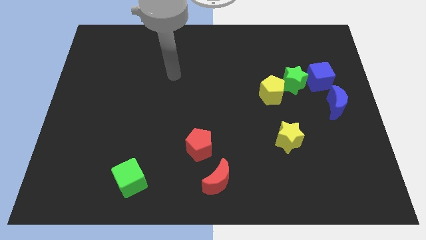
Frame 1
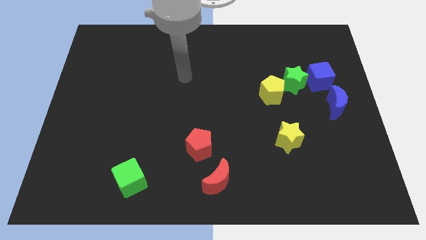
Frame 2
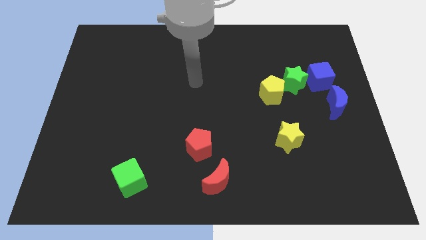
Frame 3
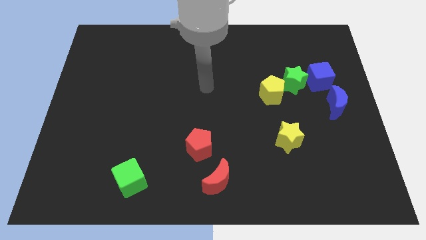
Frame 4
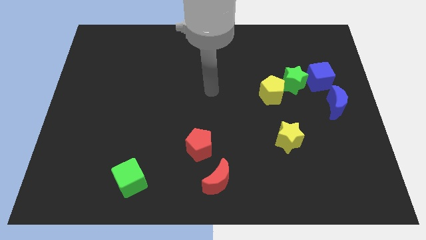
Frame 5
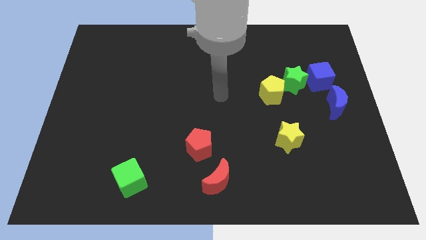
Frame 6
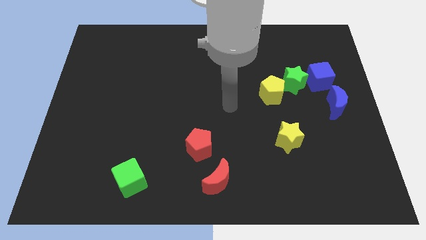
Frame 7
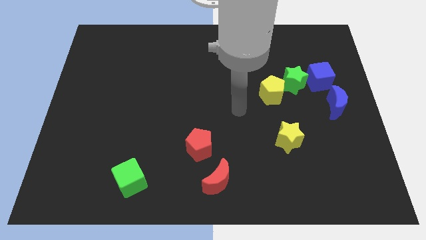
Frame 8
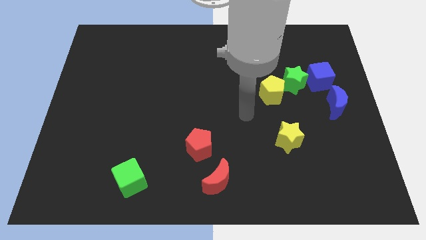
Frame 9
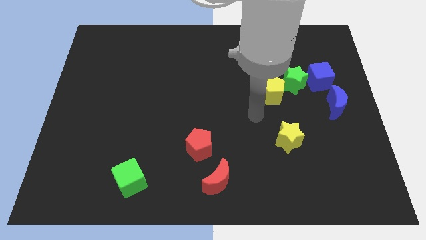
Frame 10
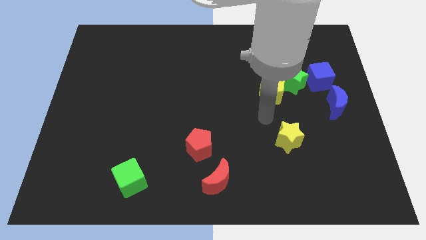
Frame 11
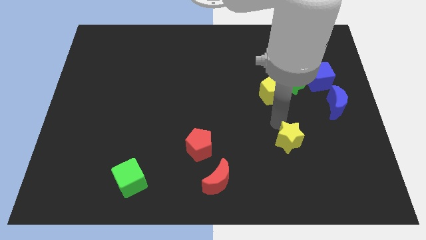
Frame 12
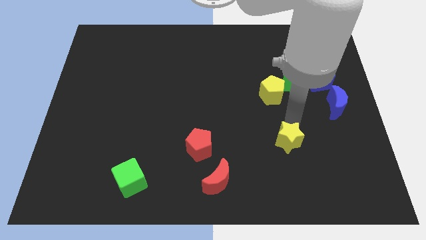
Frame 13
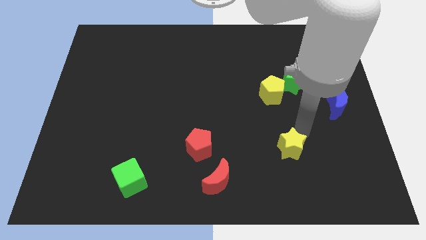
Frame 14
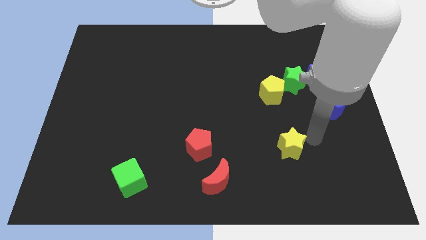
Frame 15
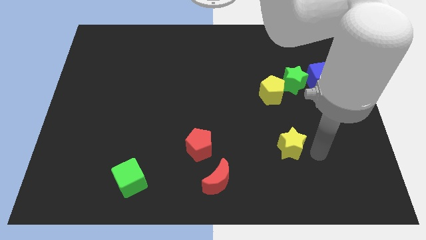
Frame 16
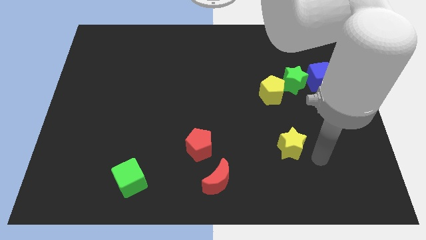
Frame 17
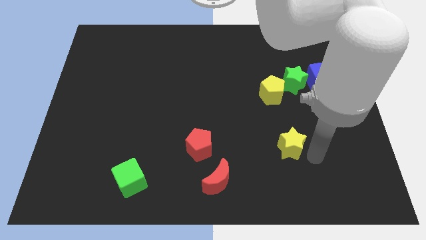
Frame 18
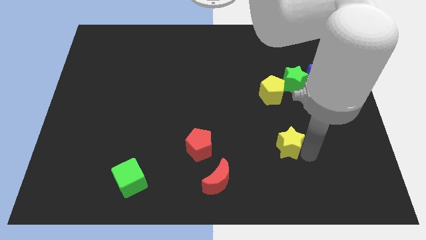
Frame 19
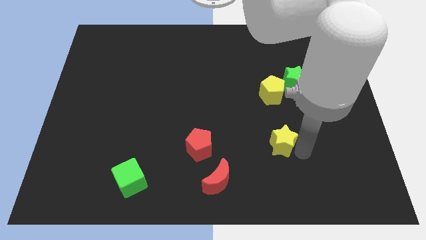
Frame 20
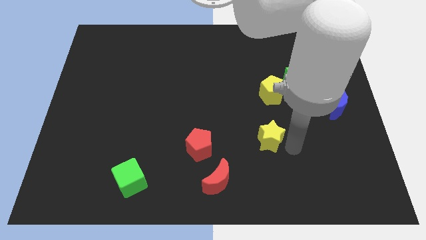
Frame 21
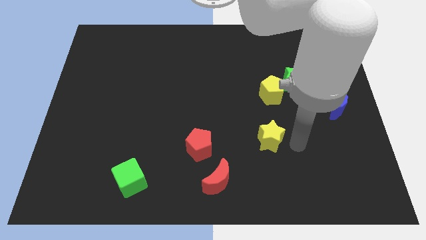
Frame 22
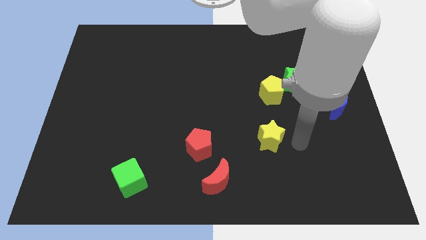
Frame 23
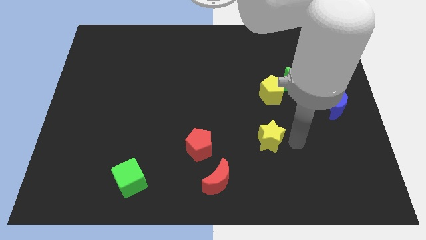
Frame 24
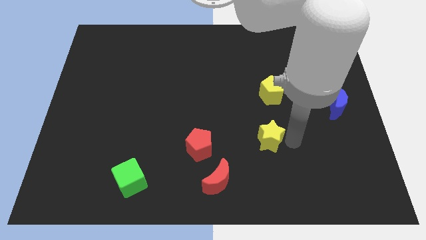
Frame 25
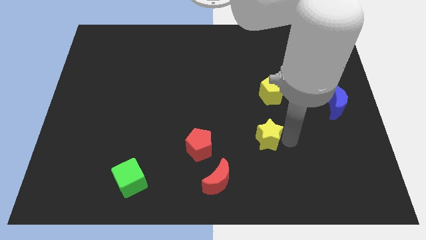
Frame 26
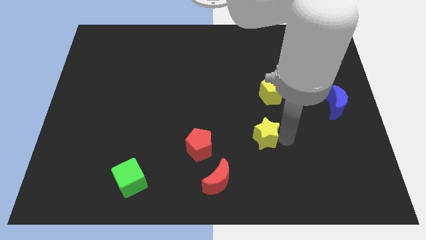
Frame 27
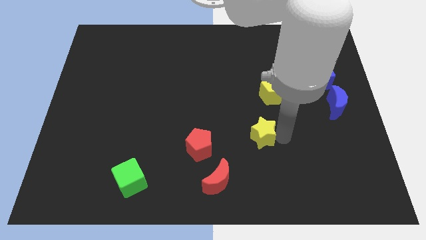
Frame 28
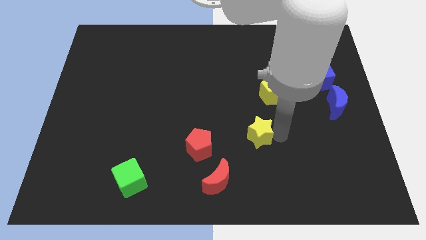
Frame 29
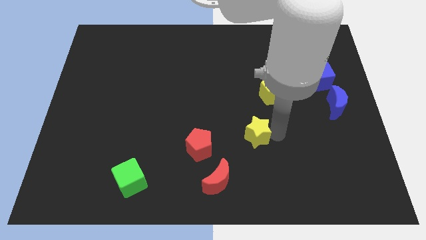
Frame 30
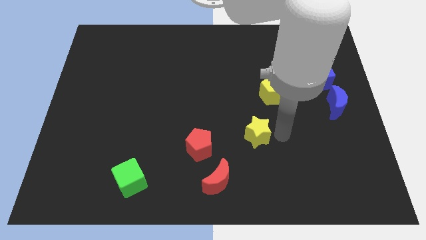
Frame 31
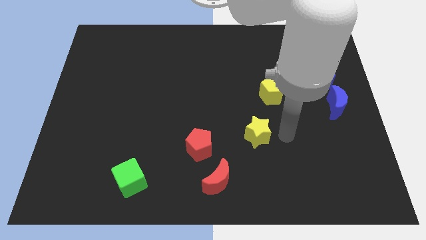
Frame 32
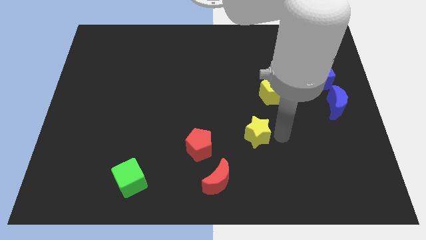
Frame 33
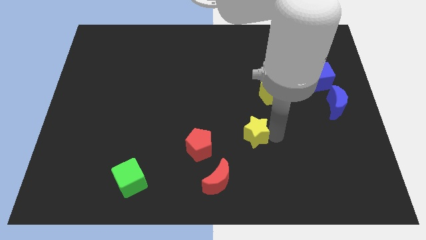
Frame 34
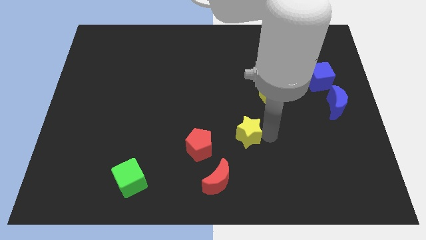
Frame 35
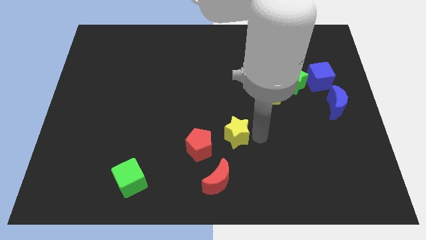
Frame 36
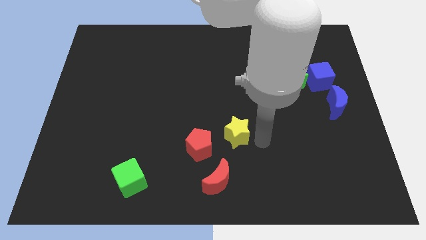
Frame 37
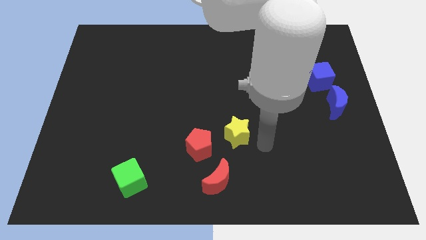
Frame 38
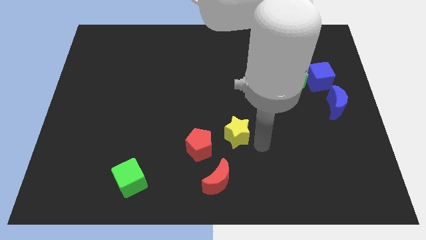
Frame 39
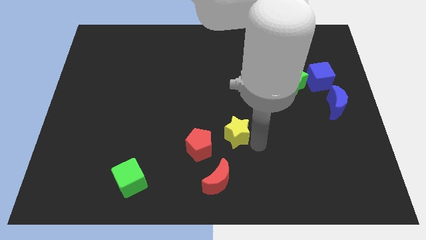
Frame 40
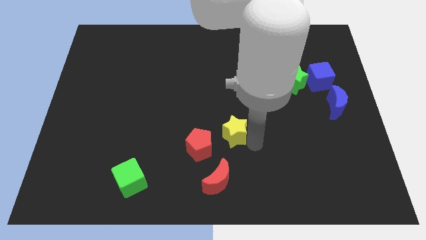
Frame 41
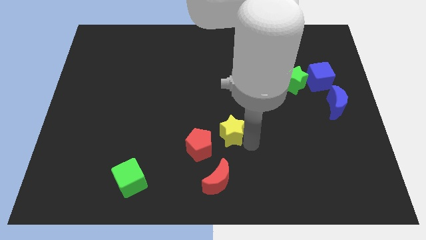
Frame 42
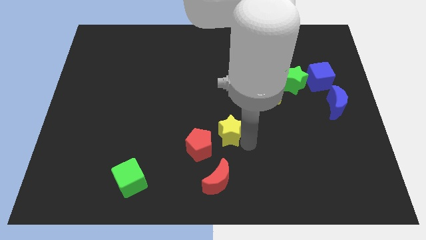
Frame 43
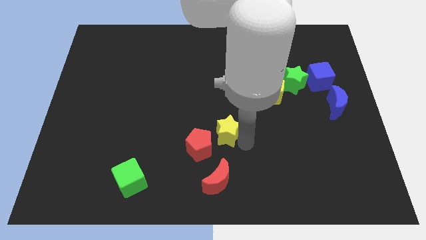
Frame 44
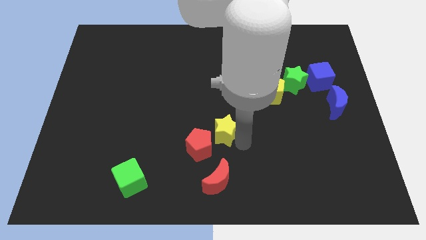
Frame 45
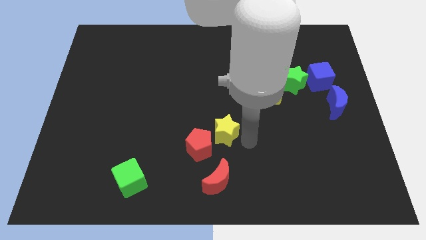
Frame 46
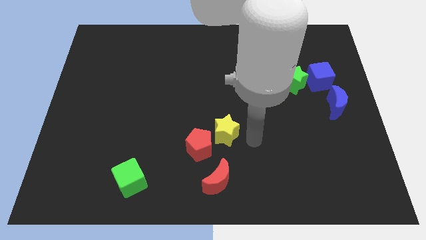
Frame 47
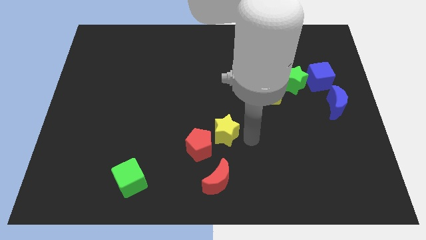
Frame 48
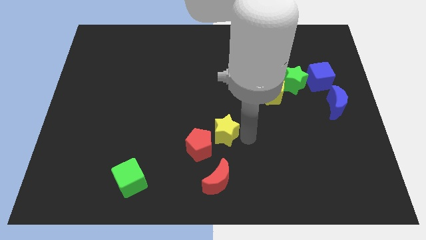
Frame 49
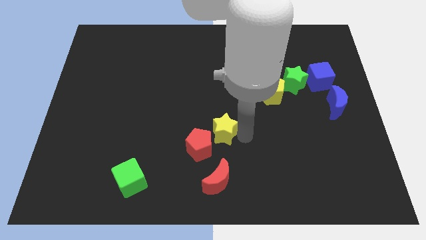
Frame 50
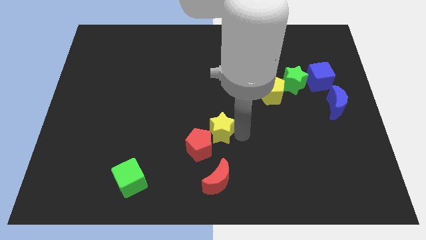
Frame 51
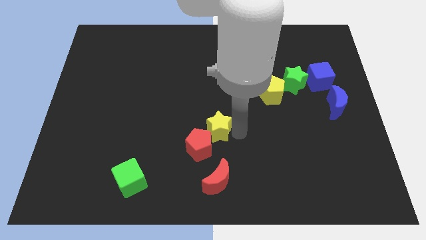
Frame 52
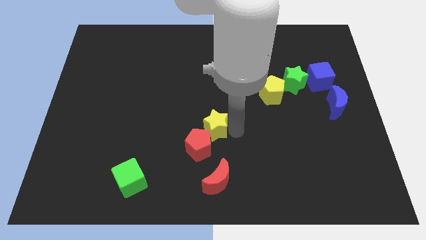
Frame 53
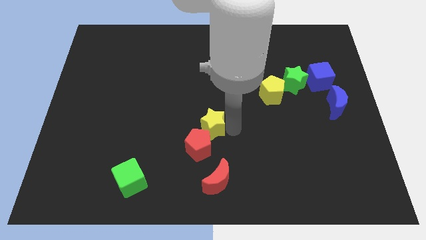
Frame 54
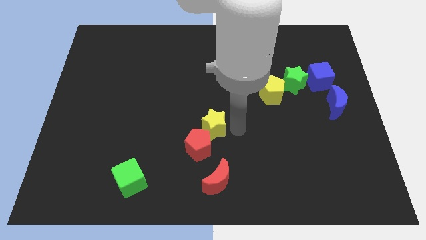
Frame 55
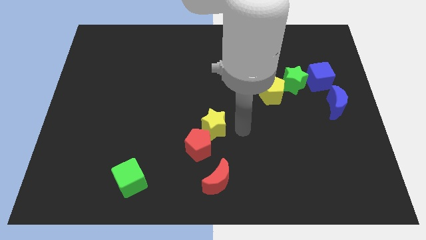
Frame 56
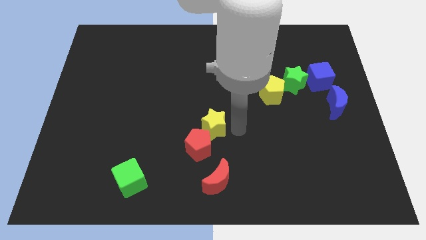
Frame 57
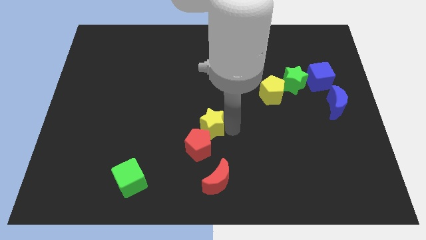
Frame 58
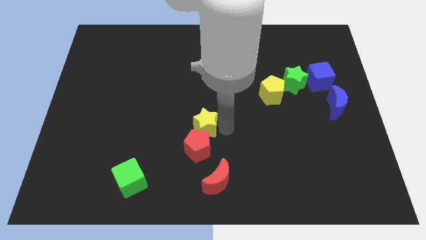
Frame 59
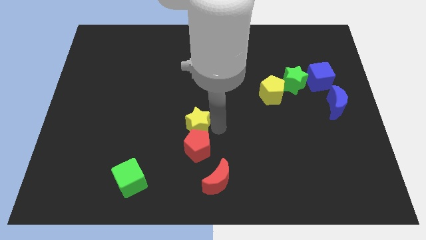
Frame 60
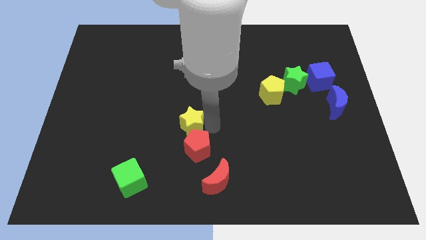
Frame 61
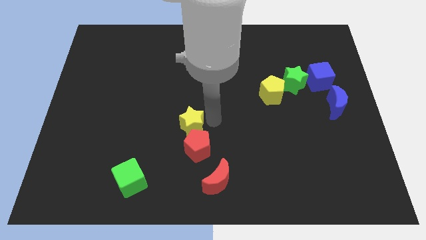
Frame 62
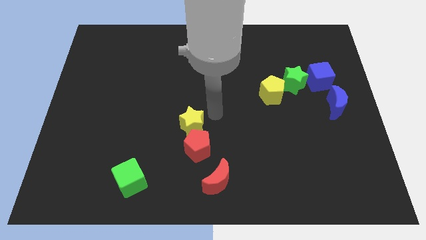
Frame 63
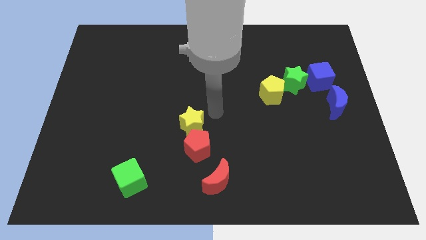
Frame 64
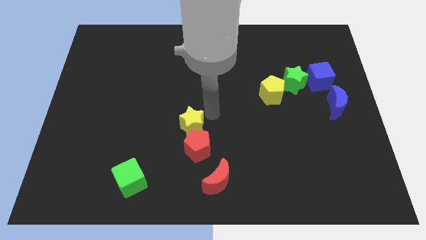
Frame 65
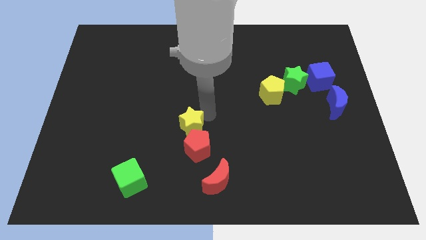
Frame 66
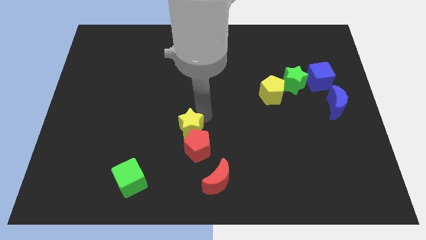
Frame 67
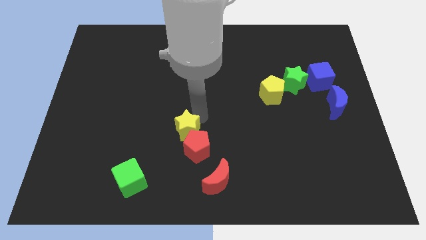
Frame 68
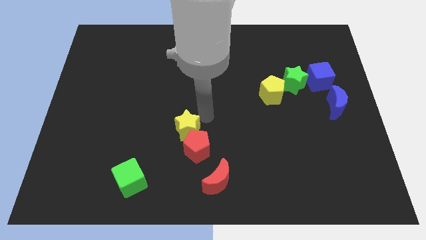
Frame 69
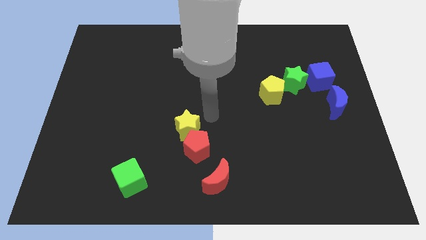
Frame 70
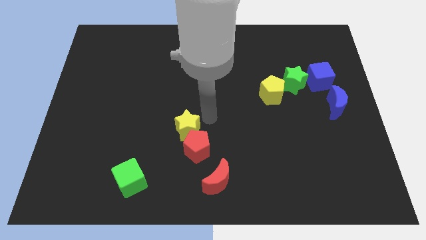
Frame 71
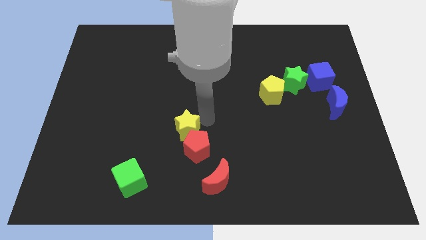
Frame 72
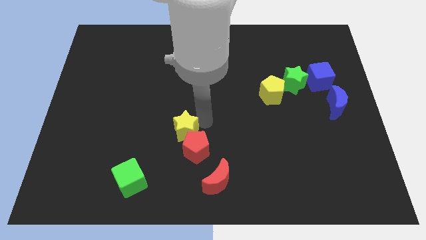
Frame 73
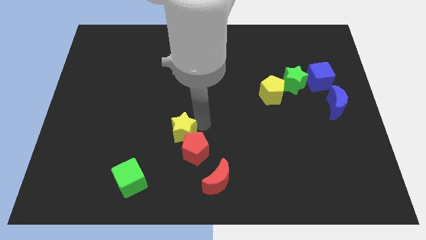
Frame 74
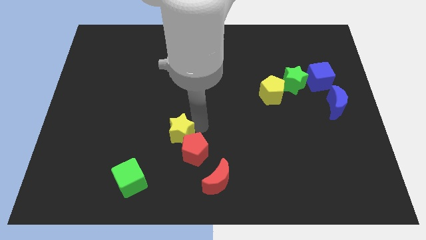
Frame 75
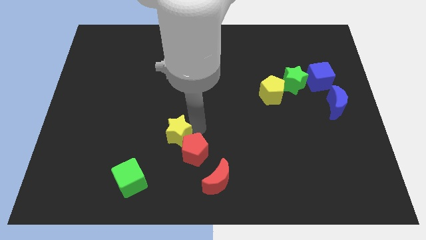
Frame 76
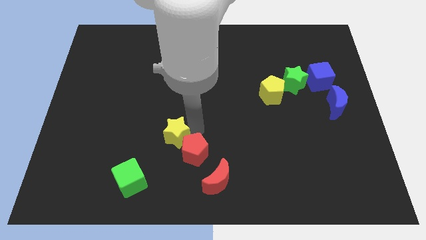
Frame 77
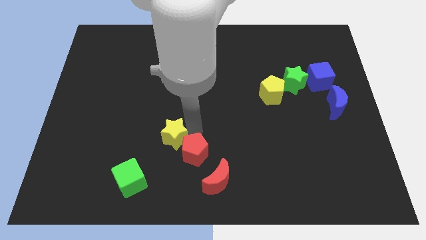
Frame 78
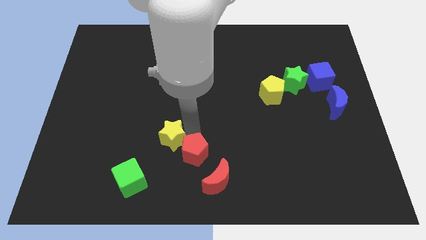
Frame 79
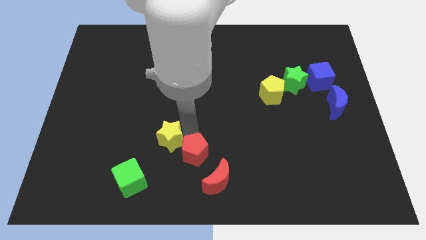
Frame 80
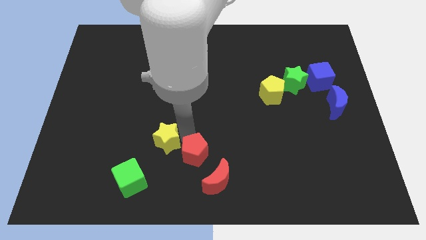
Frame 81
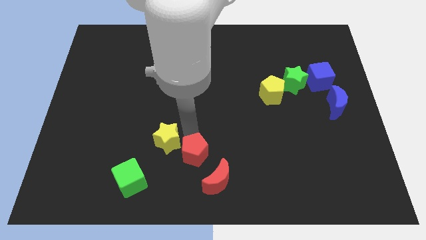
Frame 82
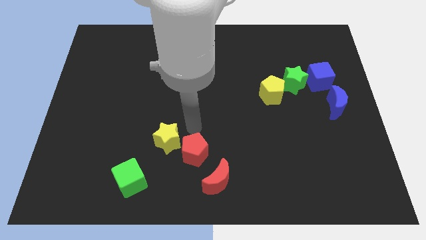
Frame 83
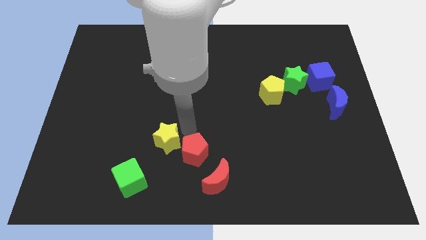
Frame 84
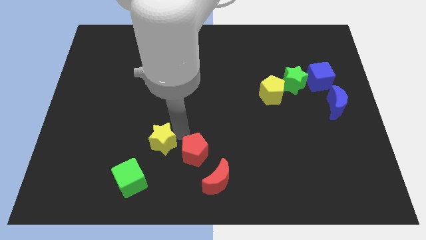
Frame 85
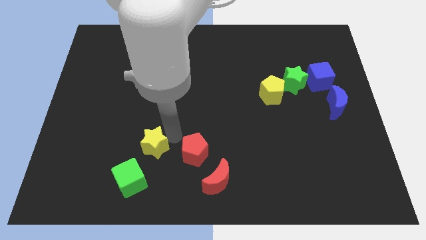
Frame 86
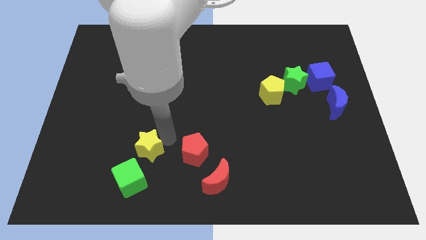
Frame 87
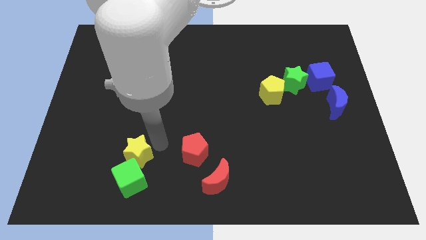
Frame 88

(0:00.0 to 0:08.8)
slide the yellow star diagonally up and to the left of the green cube
